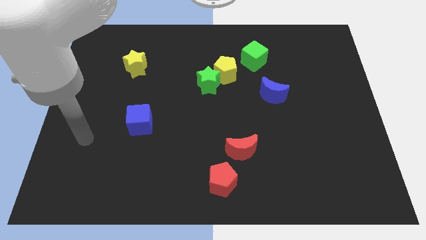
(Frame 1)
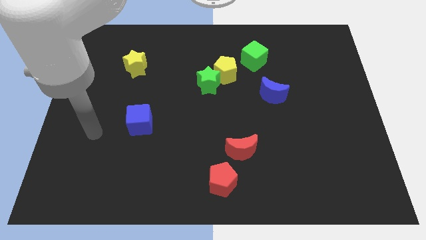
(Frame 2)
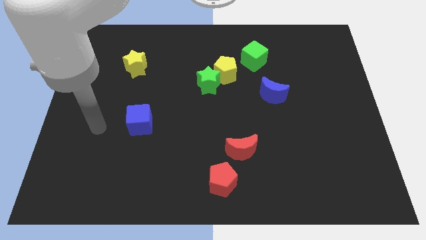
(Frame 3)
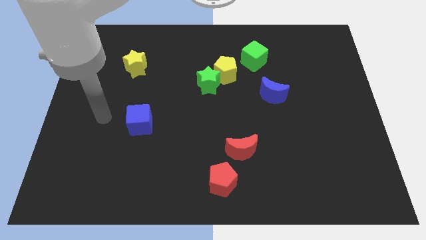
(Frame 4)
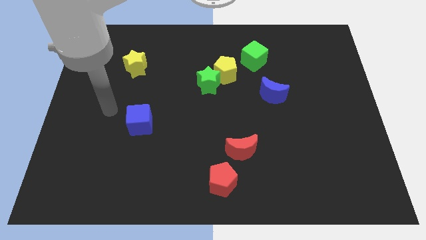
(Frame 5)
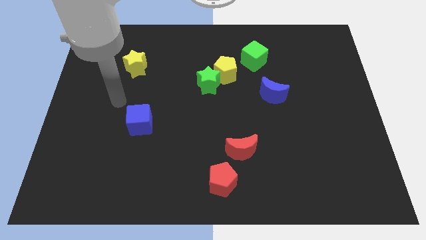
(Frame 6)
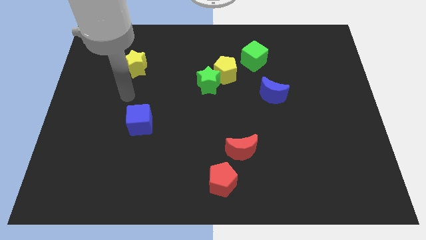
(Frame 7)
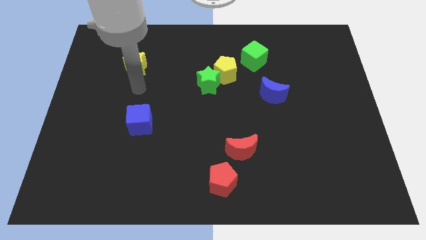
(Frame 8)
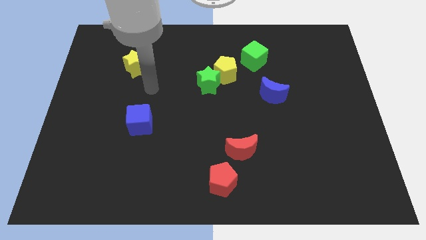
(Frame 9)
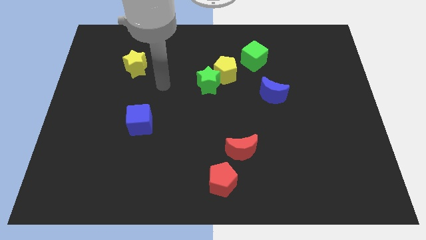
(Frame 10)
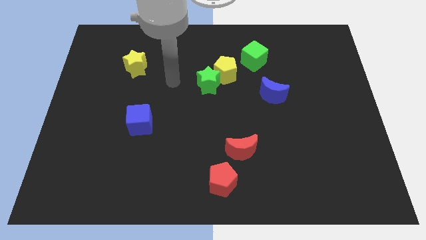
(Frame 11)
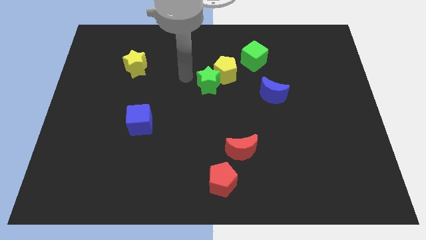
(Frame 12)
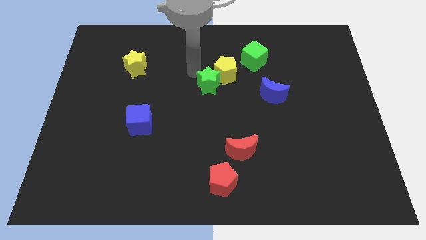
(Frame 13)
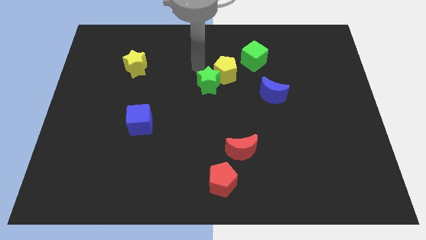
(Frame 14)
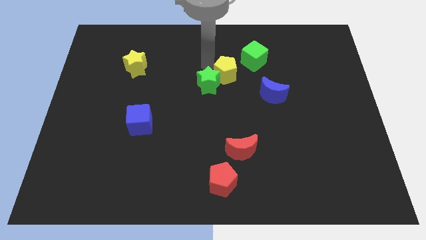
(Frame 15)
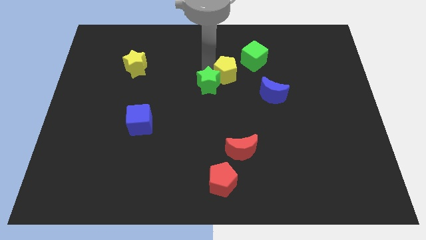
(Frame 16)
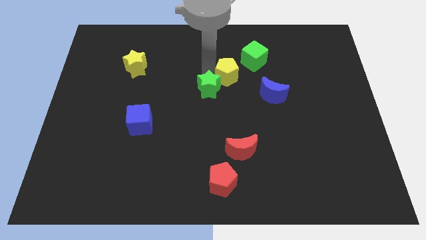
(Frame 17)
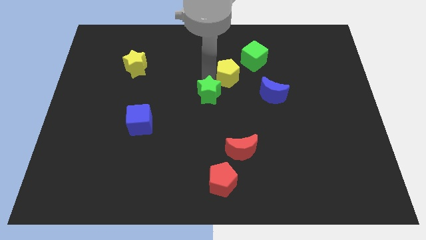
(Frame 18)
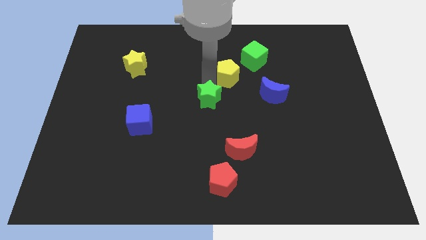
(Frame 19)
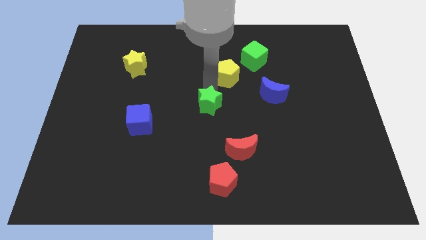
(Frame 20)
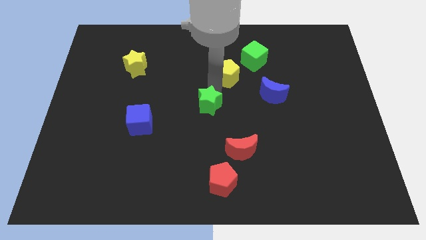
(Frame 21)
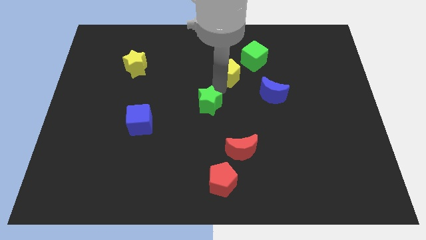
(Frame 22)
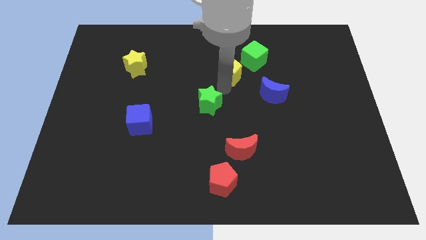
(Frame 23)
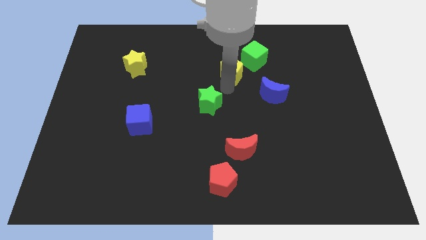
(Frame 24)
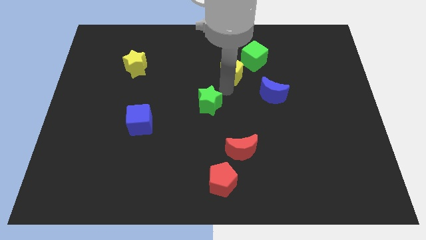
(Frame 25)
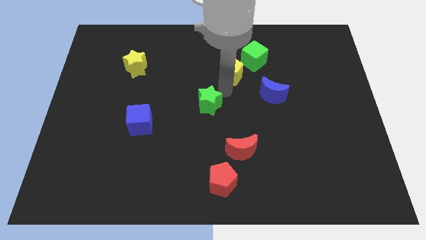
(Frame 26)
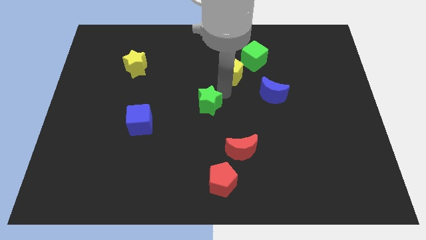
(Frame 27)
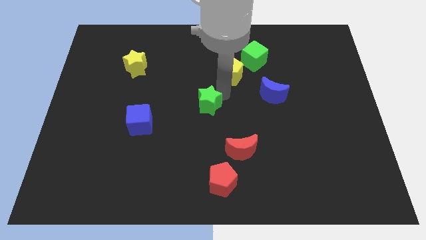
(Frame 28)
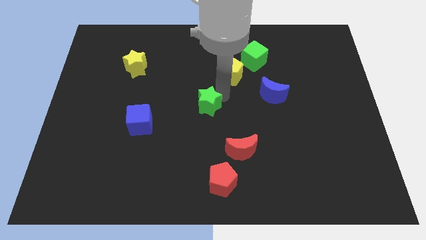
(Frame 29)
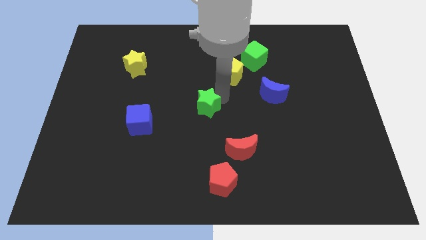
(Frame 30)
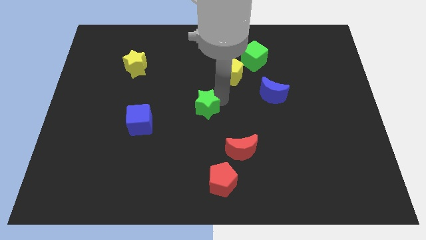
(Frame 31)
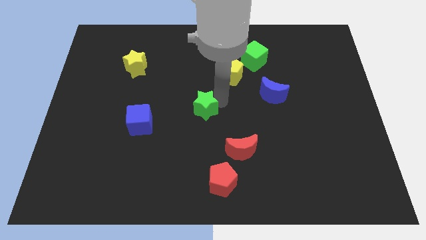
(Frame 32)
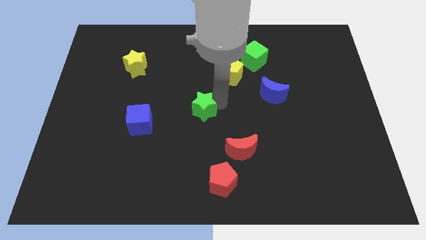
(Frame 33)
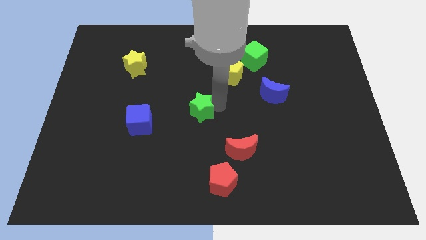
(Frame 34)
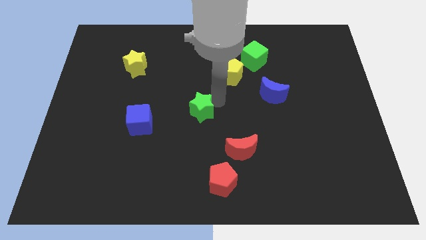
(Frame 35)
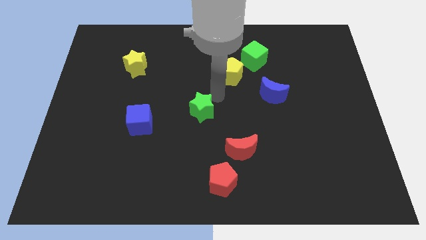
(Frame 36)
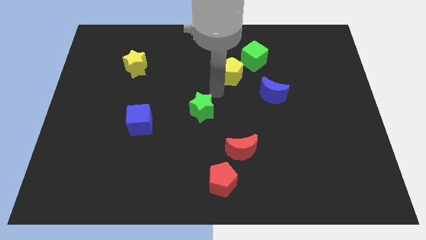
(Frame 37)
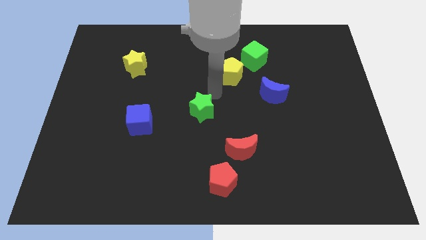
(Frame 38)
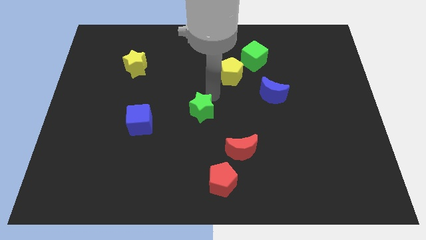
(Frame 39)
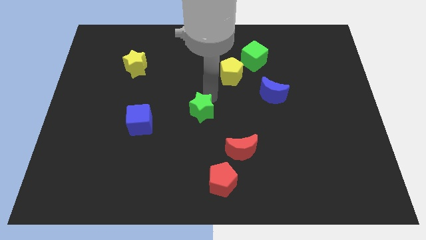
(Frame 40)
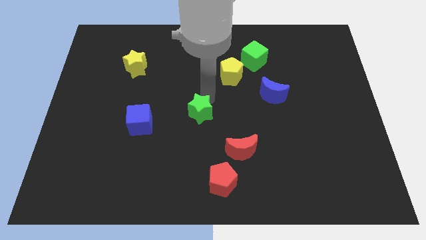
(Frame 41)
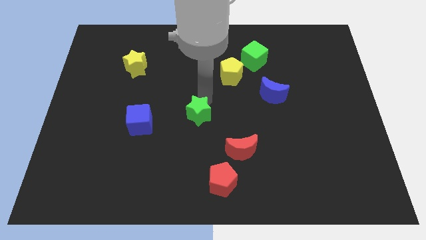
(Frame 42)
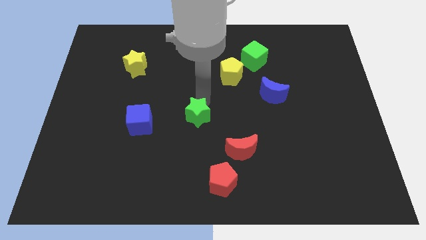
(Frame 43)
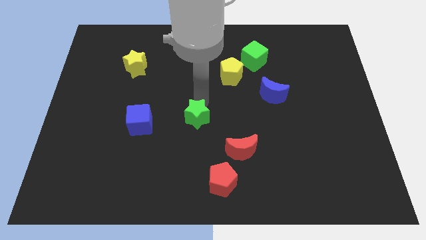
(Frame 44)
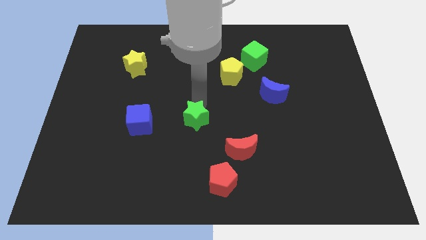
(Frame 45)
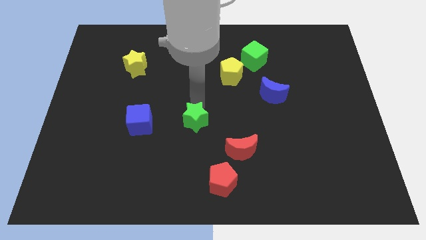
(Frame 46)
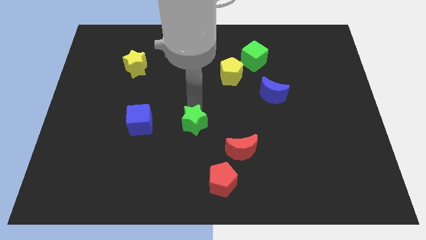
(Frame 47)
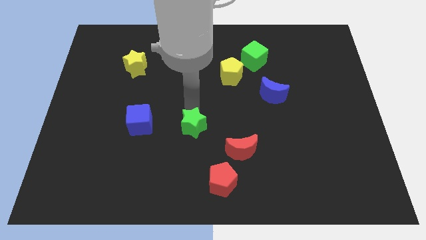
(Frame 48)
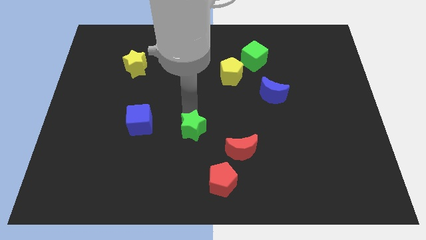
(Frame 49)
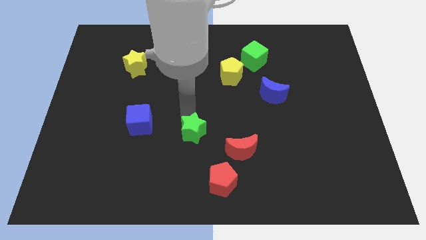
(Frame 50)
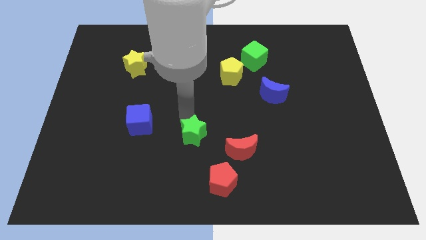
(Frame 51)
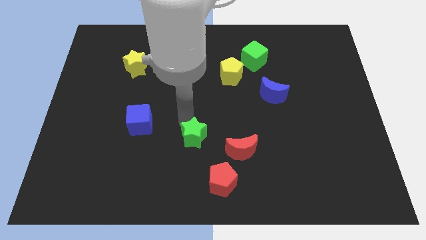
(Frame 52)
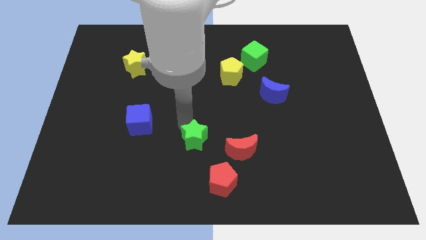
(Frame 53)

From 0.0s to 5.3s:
move the green star to the top left side of the red pentagon
